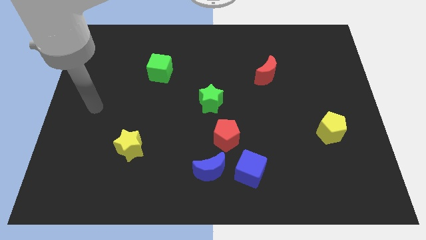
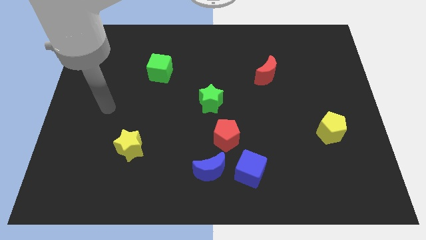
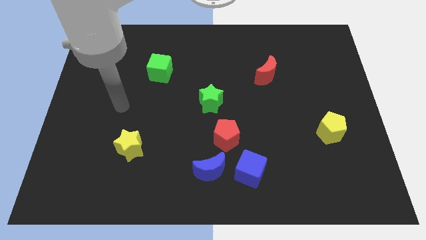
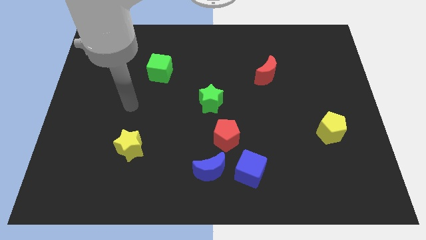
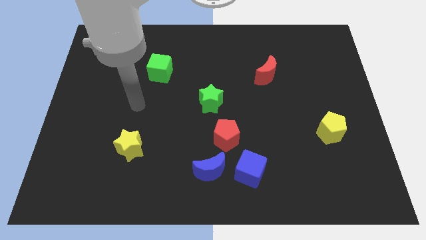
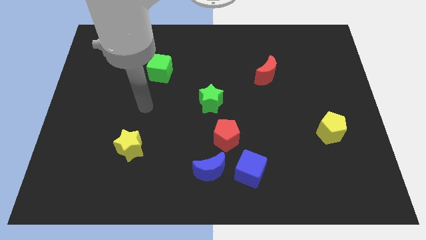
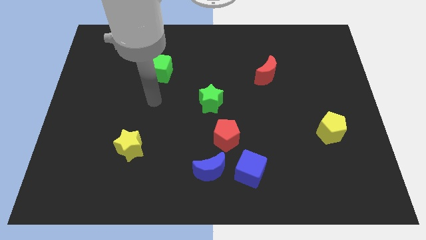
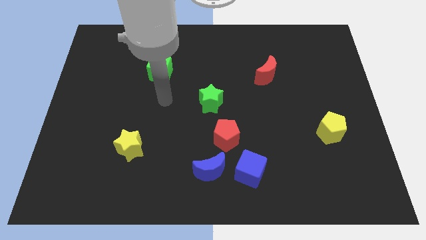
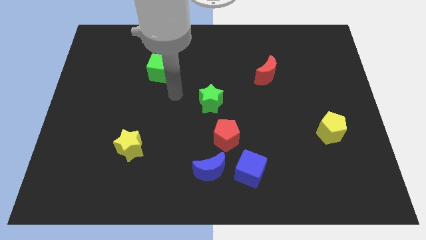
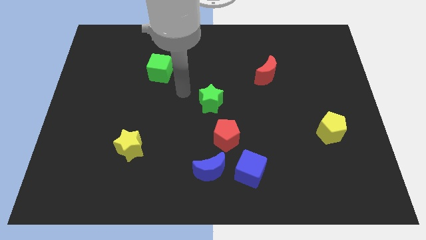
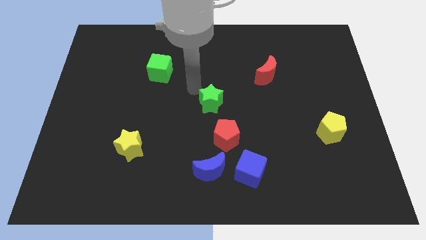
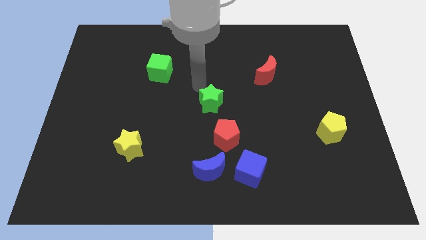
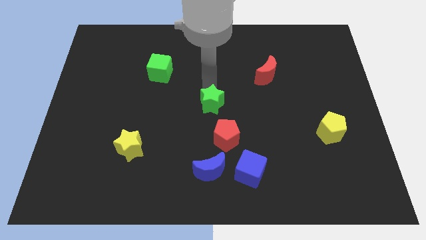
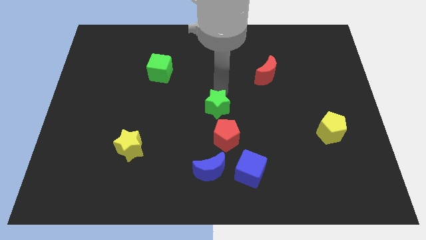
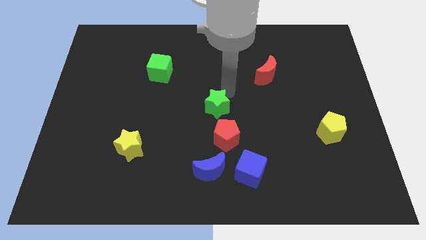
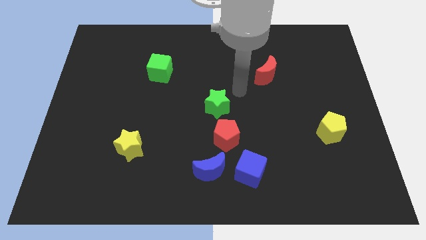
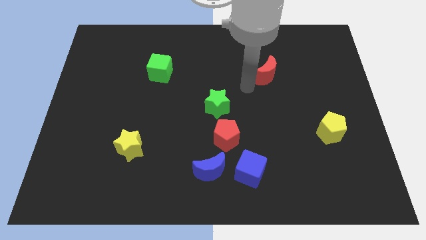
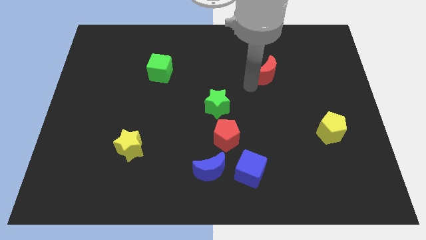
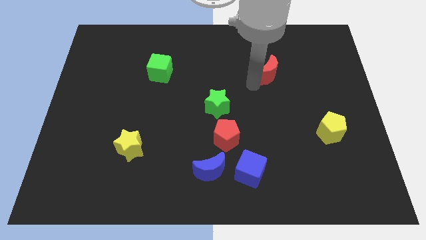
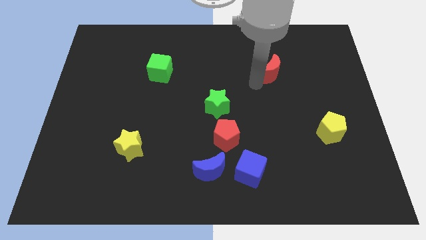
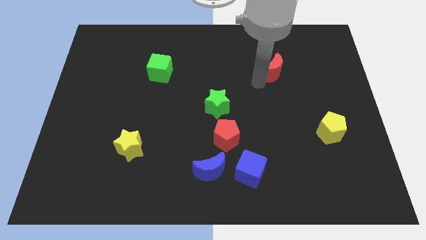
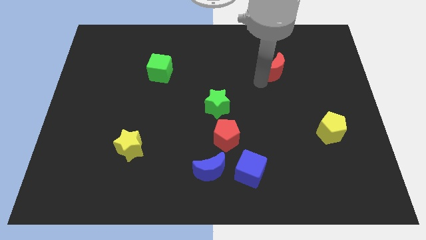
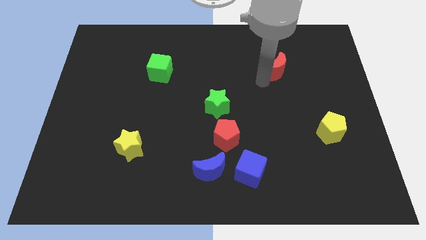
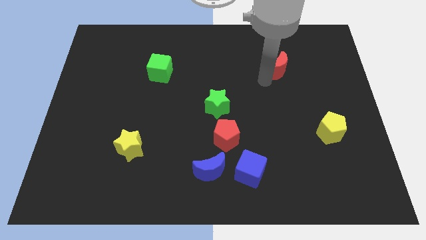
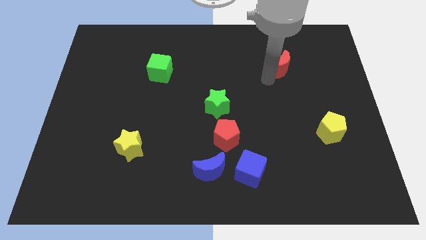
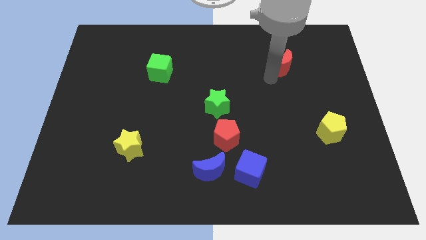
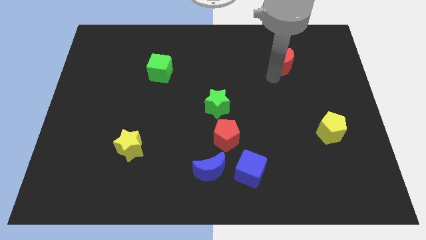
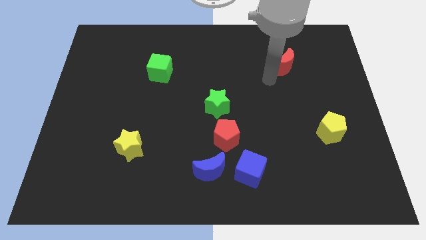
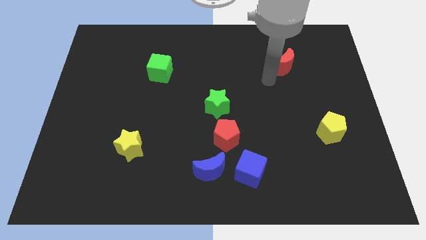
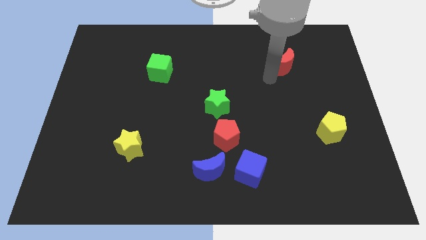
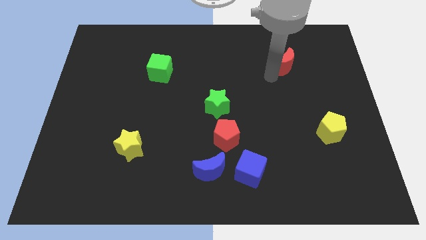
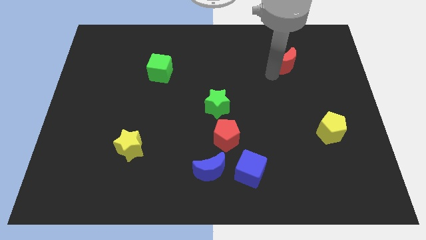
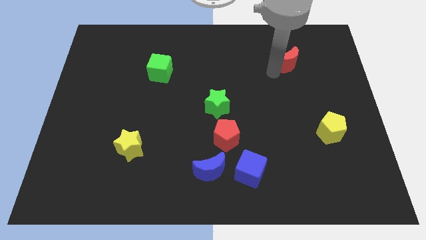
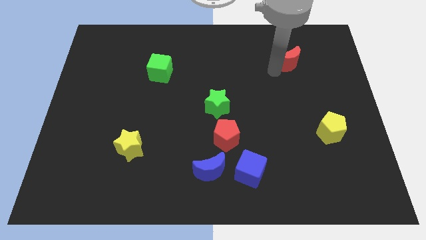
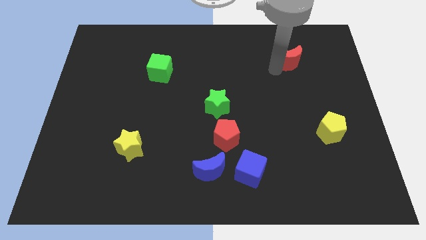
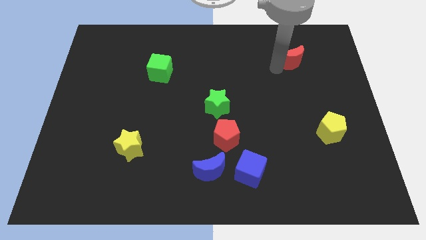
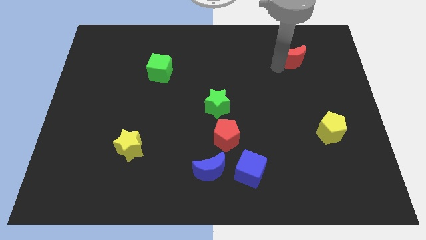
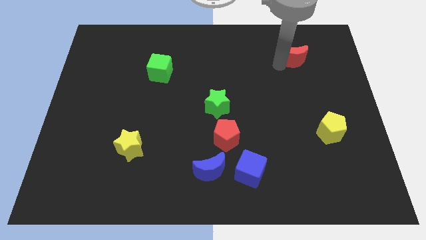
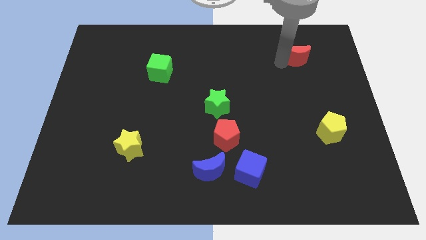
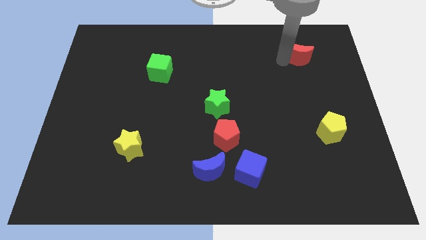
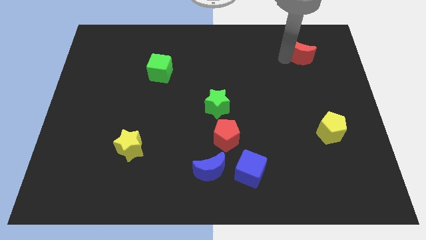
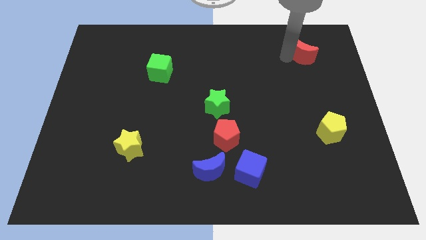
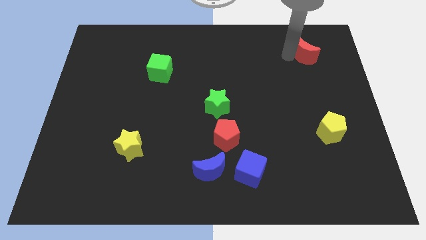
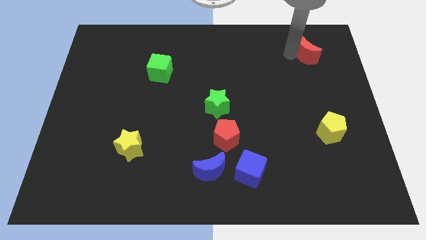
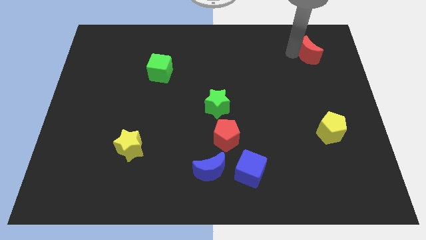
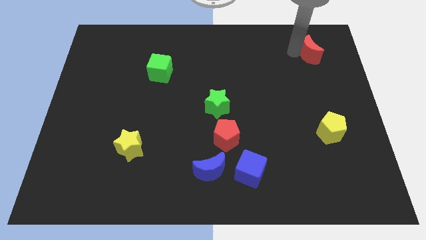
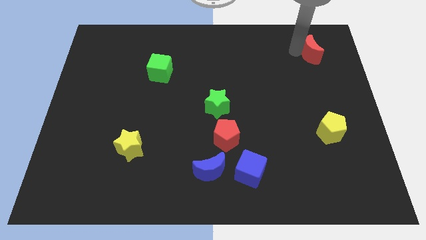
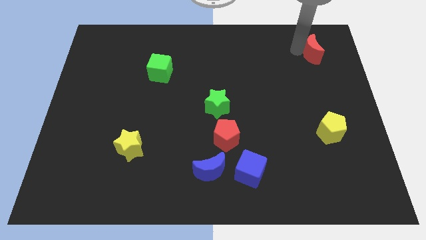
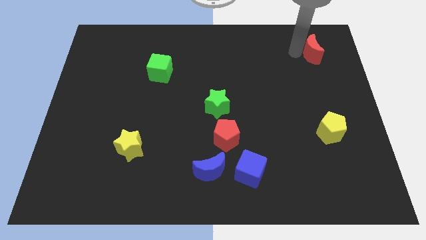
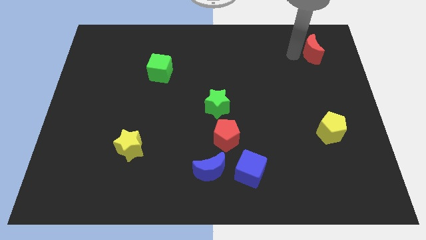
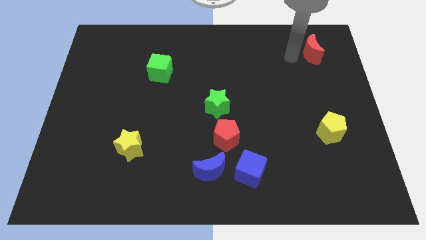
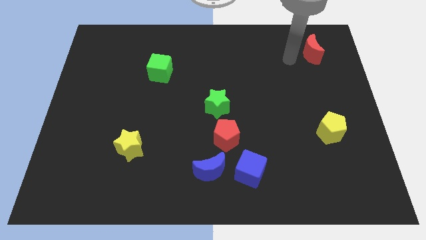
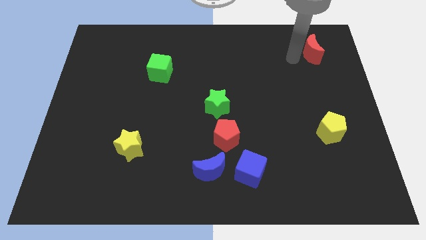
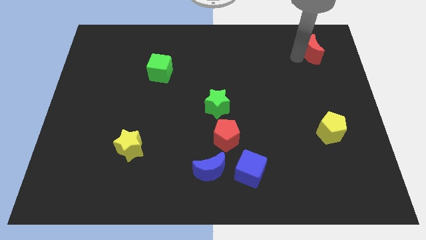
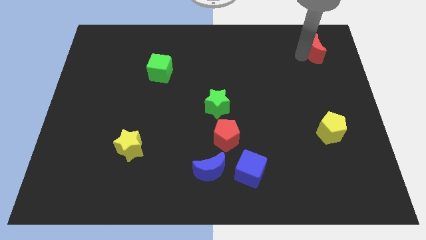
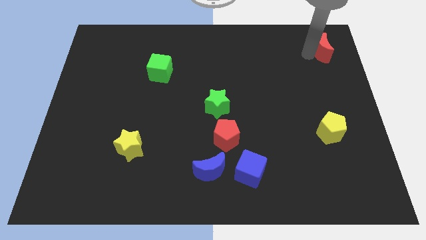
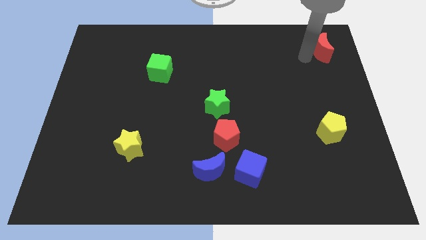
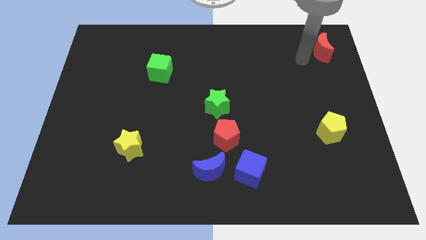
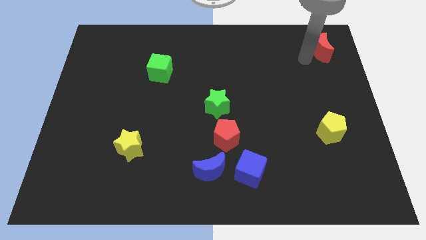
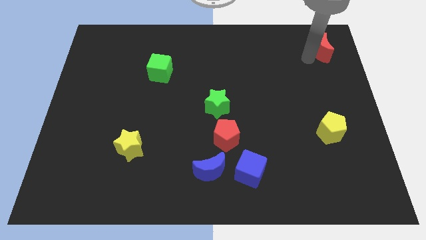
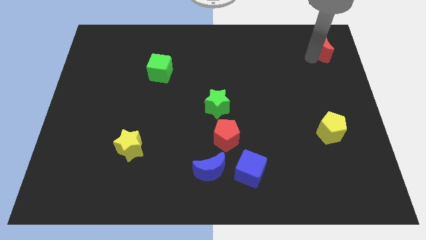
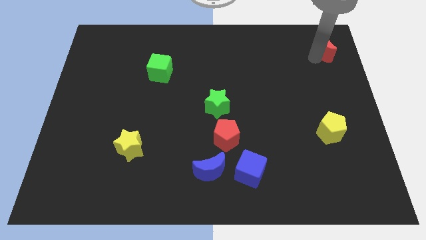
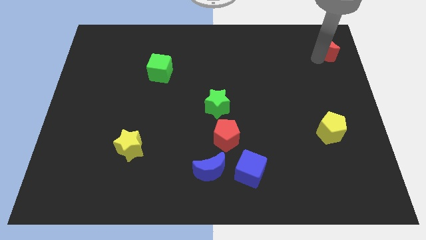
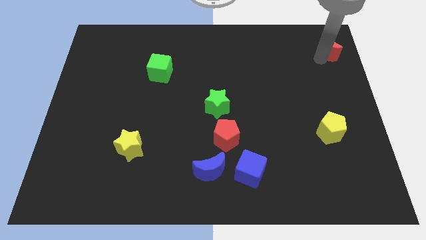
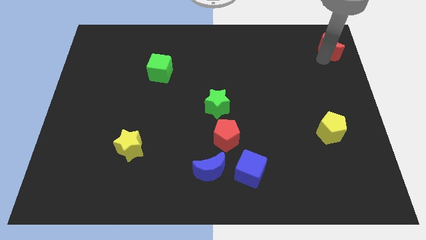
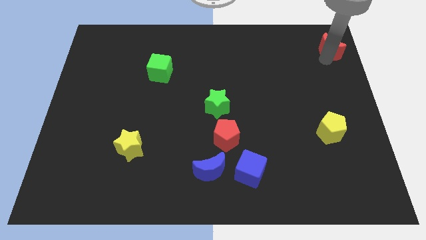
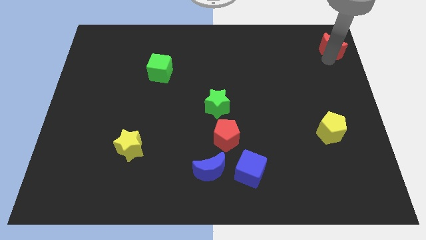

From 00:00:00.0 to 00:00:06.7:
move the red moon to the upper right corner

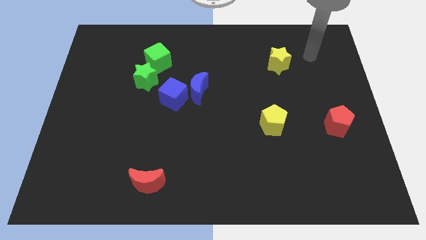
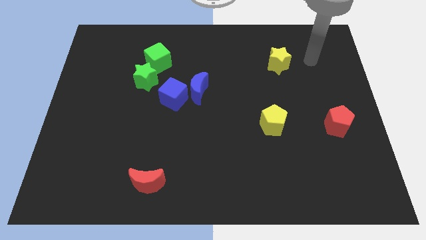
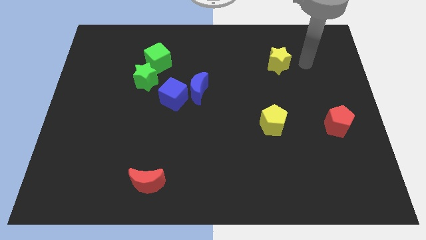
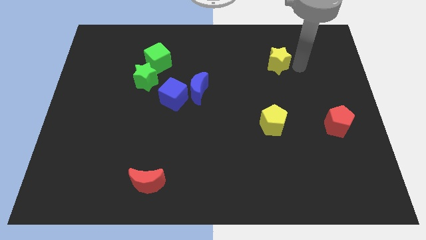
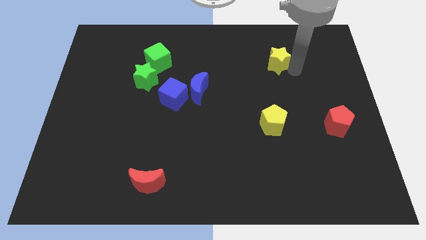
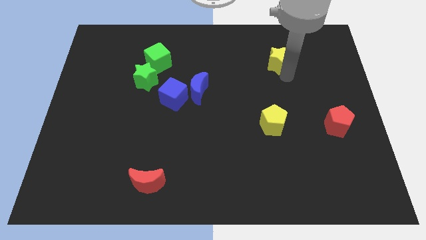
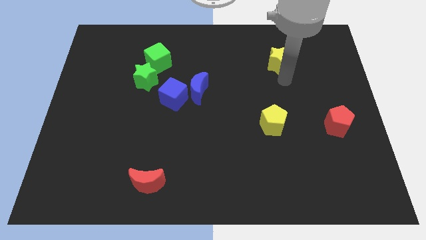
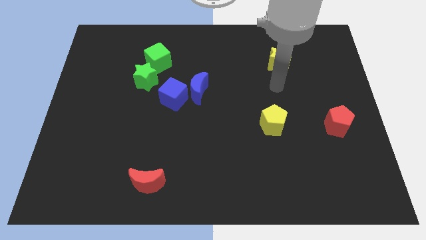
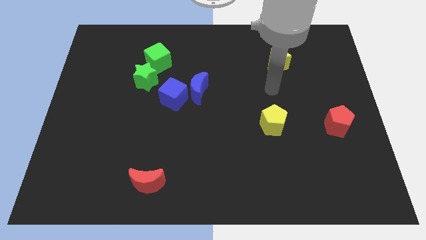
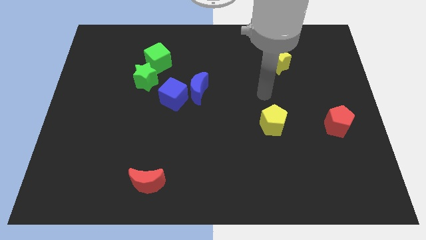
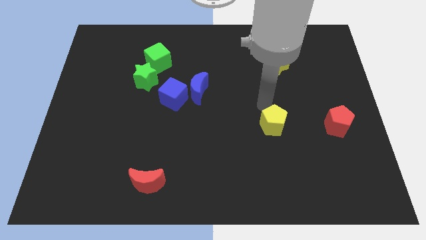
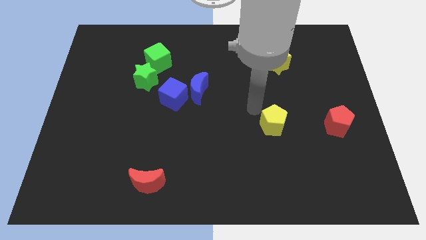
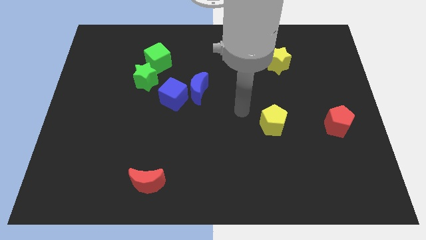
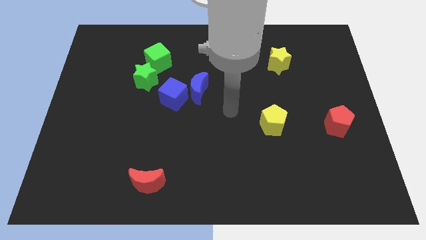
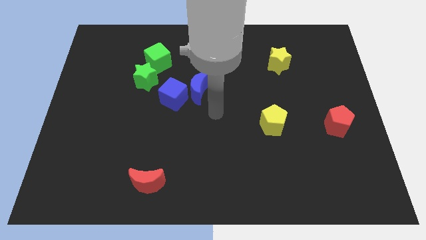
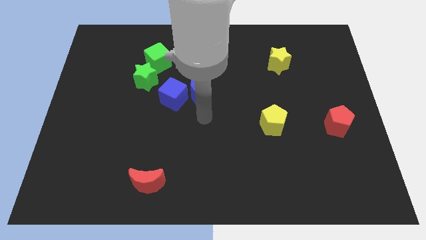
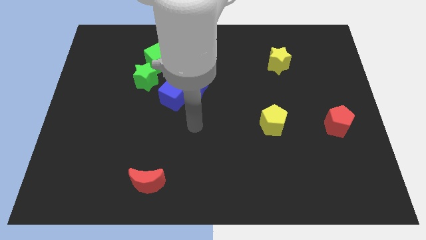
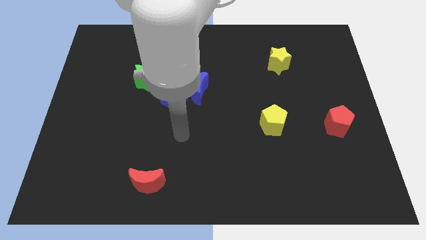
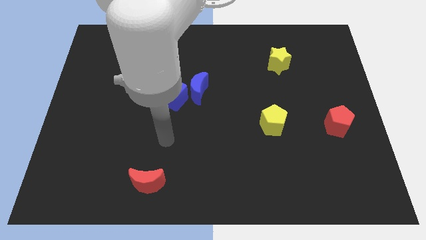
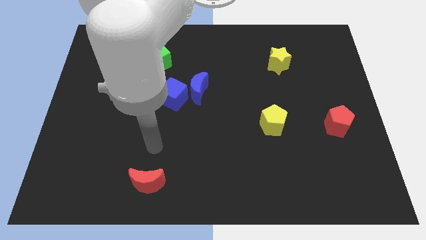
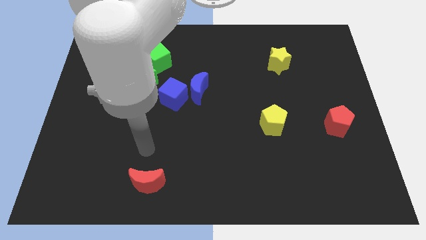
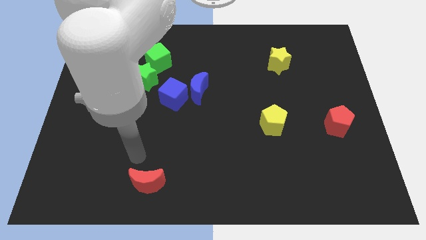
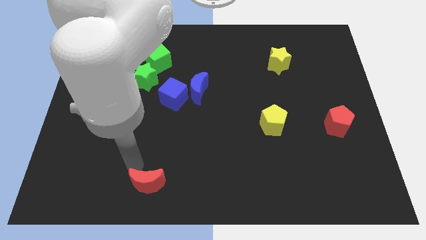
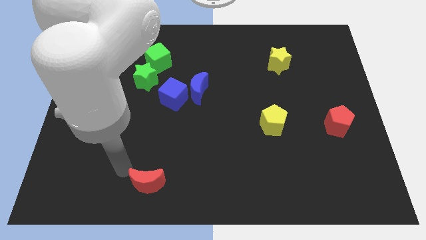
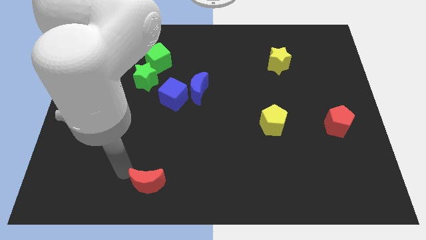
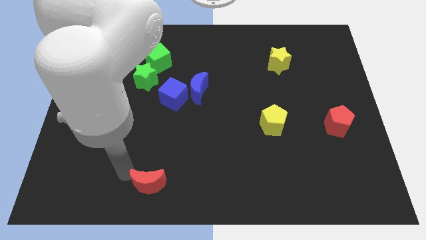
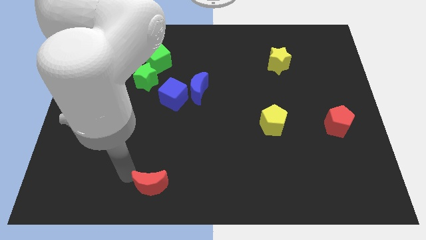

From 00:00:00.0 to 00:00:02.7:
slide the red moon to the bottom
